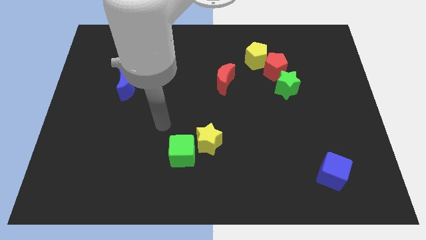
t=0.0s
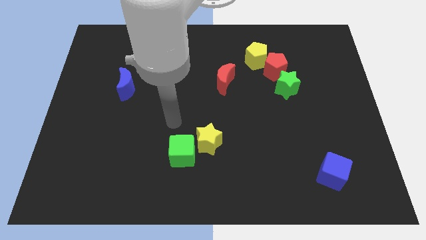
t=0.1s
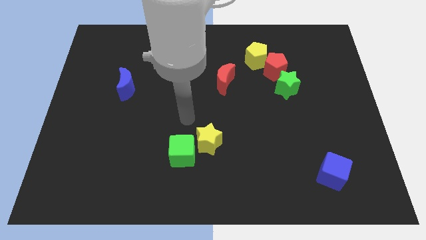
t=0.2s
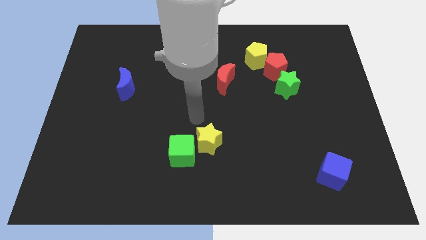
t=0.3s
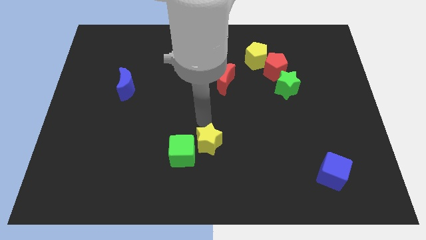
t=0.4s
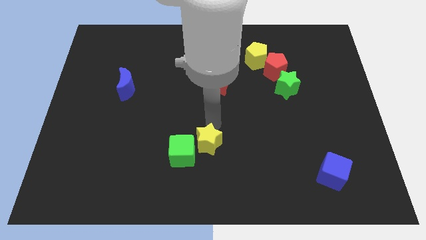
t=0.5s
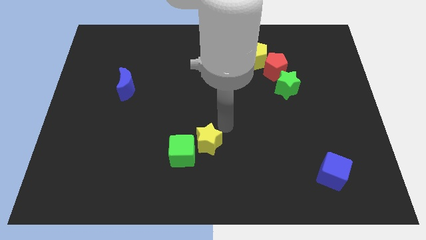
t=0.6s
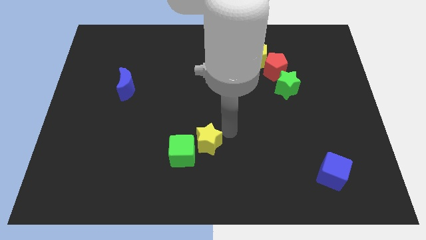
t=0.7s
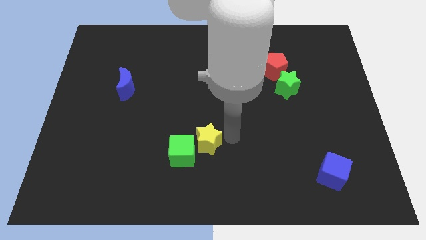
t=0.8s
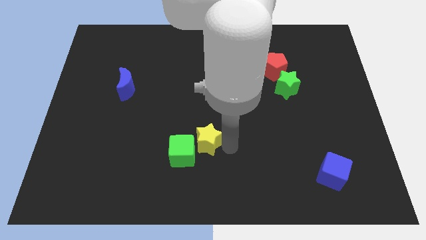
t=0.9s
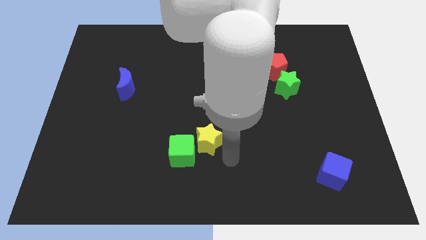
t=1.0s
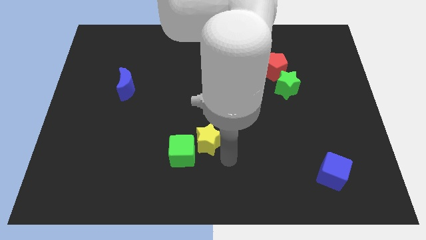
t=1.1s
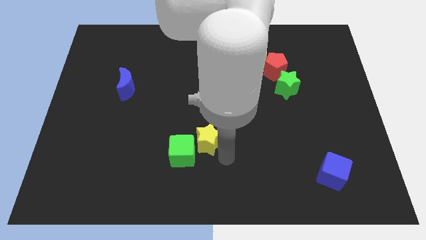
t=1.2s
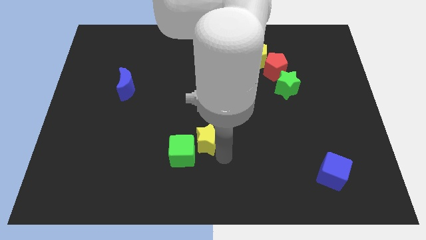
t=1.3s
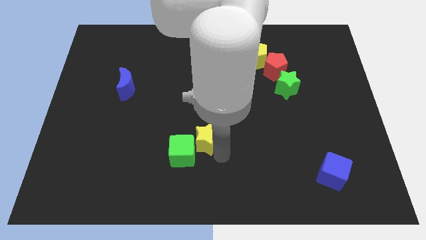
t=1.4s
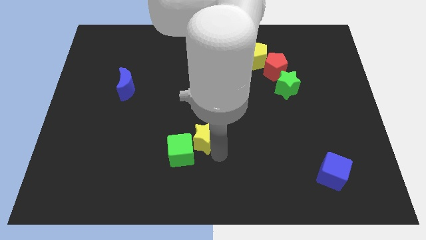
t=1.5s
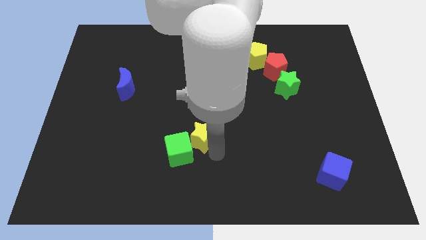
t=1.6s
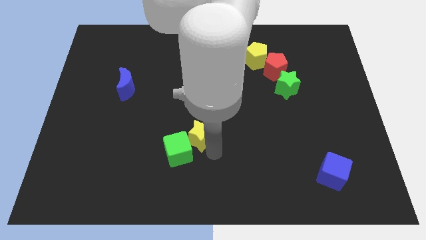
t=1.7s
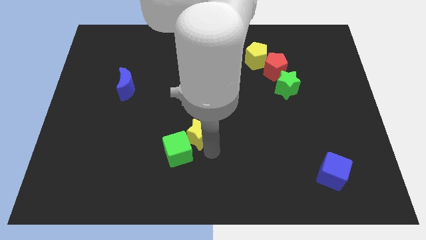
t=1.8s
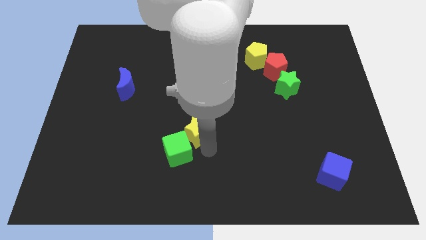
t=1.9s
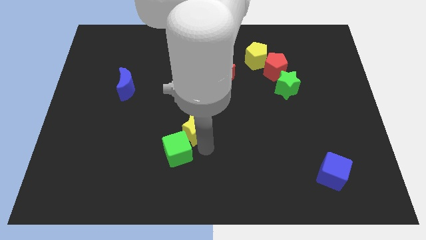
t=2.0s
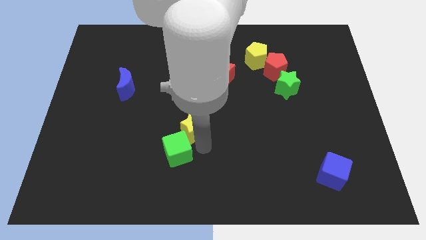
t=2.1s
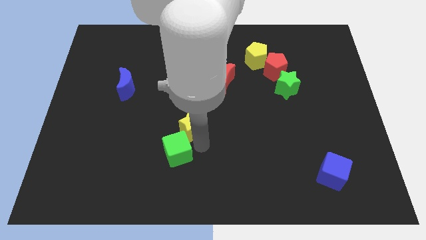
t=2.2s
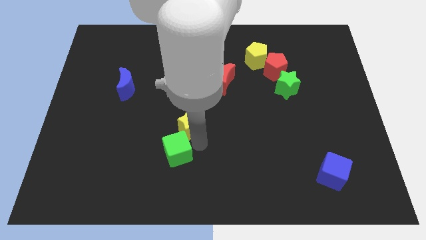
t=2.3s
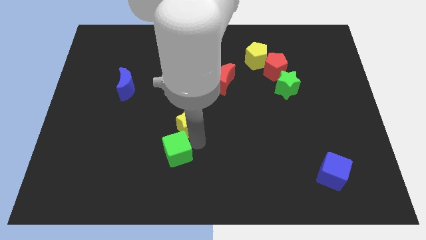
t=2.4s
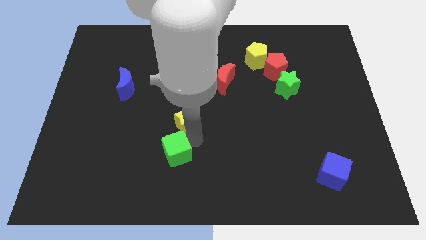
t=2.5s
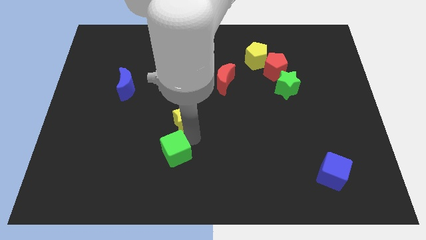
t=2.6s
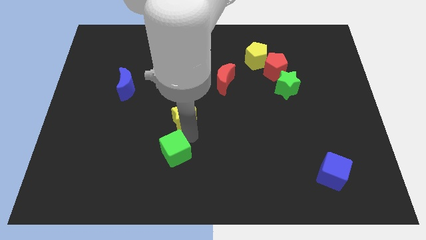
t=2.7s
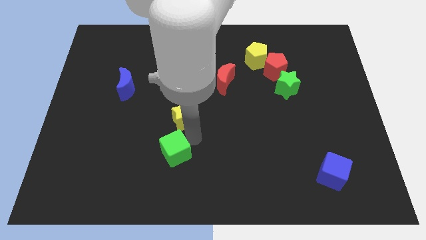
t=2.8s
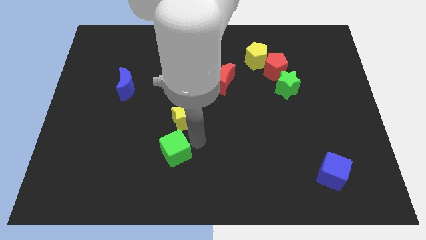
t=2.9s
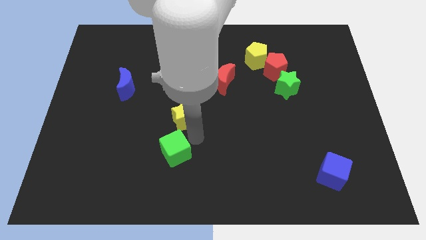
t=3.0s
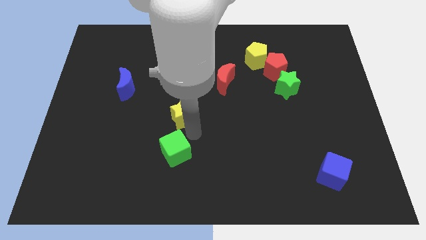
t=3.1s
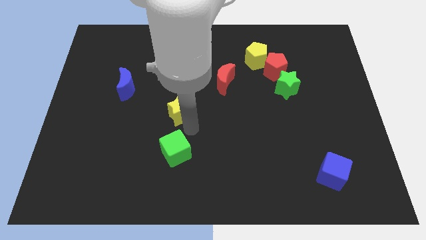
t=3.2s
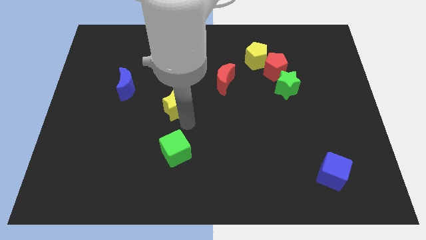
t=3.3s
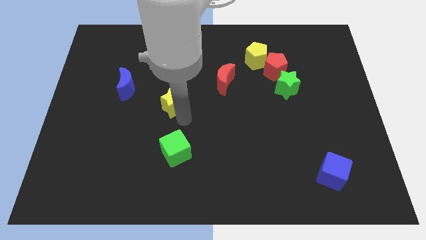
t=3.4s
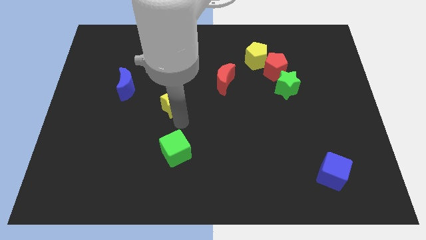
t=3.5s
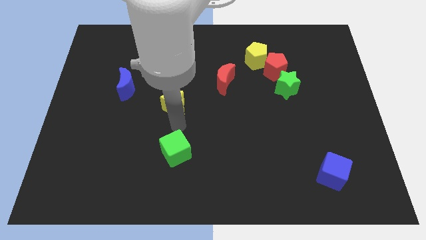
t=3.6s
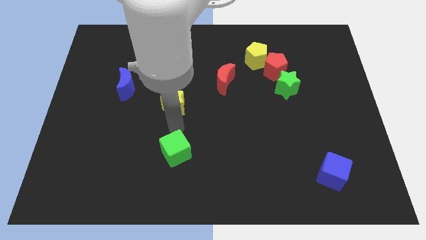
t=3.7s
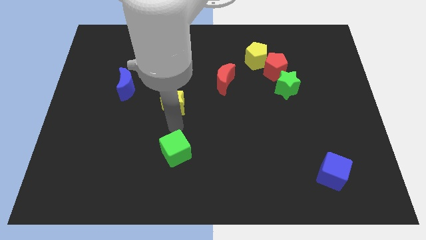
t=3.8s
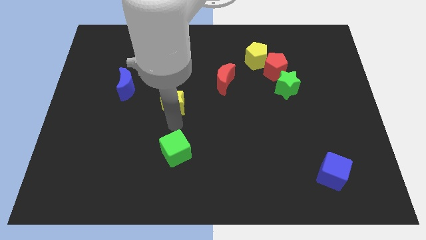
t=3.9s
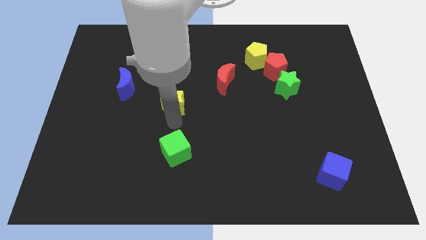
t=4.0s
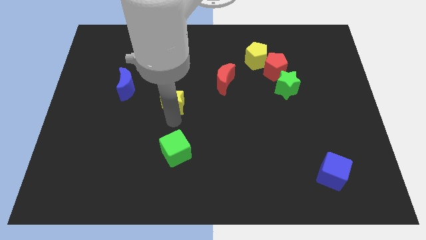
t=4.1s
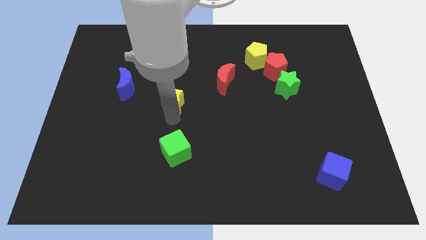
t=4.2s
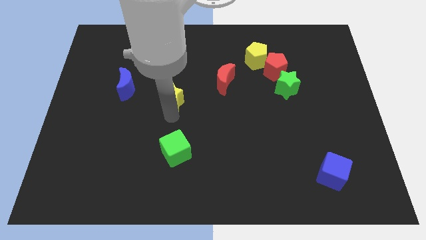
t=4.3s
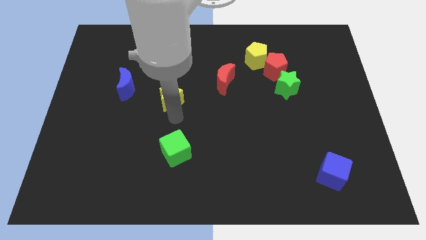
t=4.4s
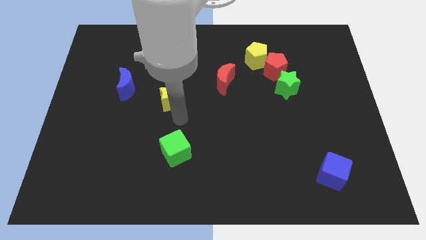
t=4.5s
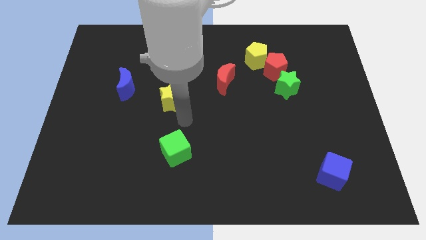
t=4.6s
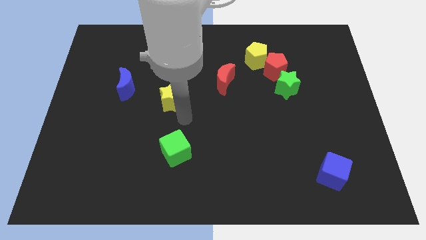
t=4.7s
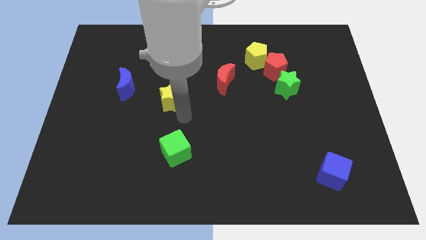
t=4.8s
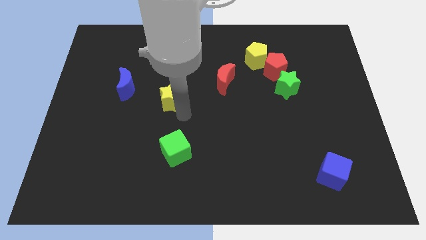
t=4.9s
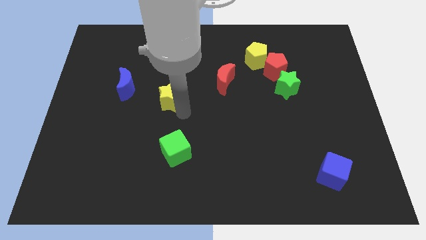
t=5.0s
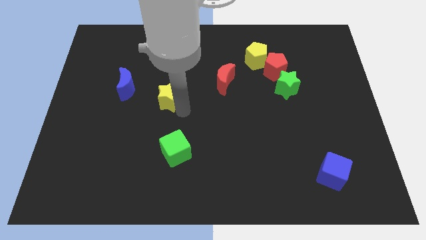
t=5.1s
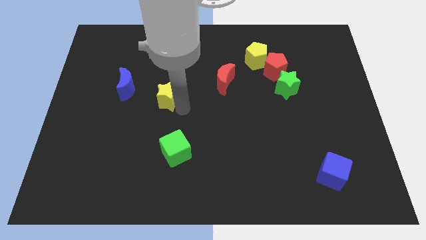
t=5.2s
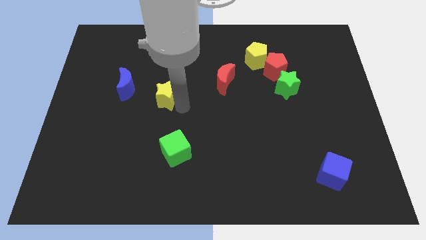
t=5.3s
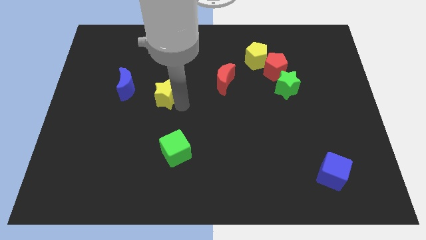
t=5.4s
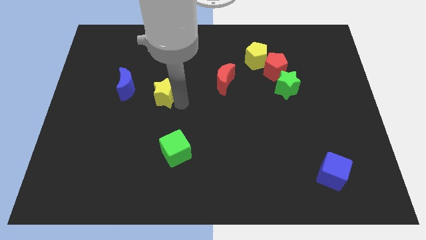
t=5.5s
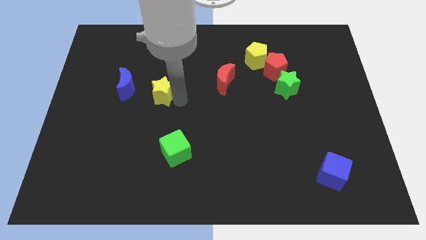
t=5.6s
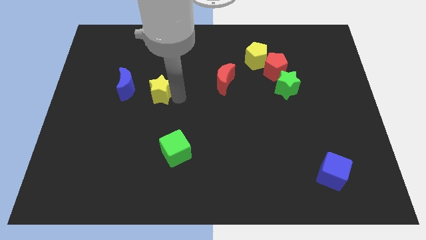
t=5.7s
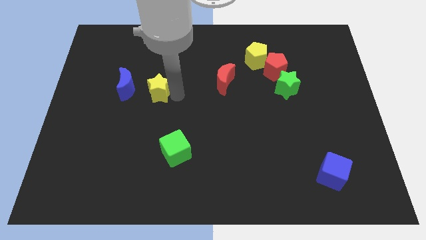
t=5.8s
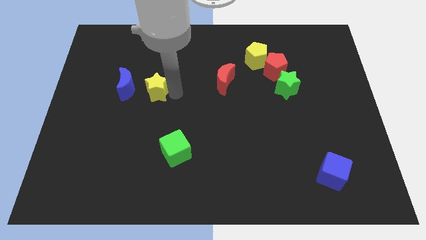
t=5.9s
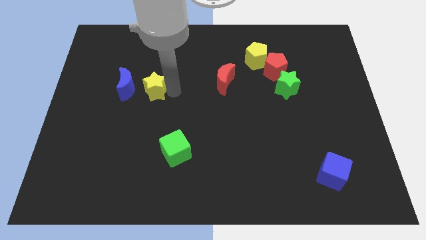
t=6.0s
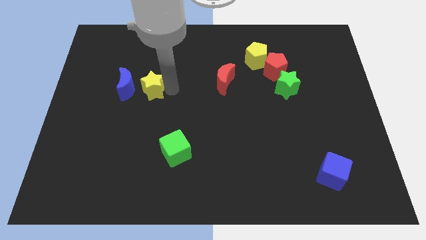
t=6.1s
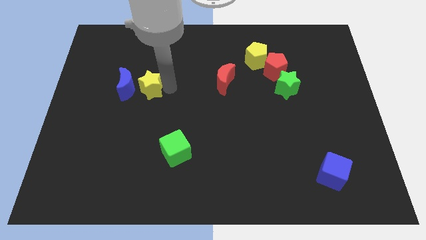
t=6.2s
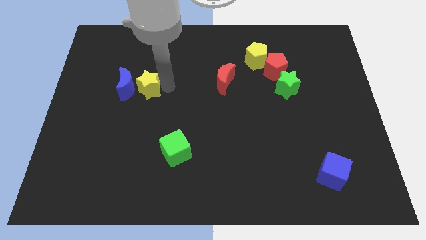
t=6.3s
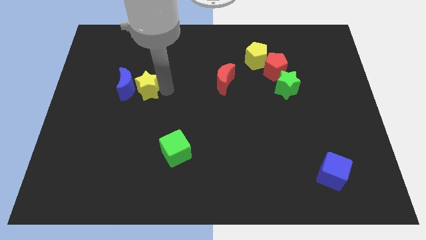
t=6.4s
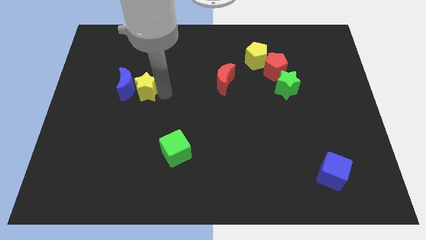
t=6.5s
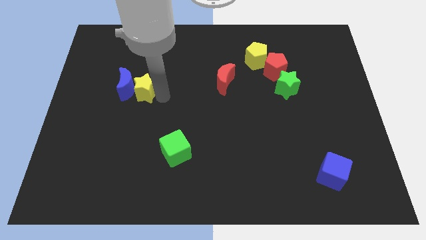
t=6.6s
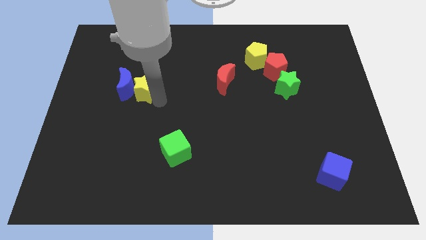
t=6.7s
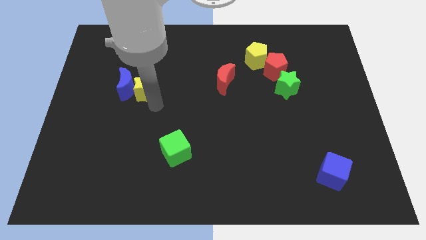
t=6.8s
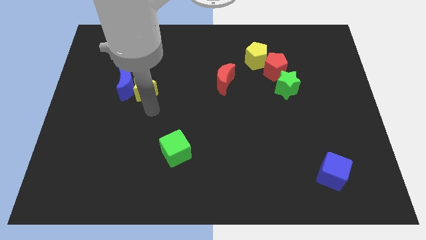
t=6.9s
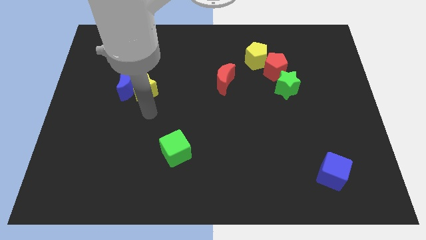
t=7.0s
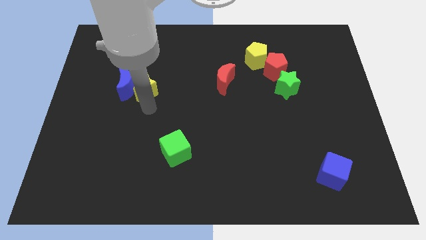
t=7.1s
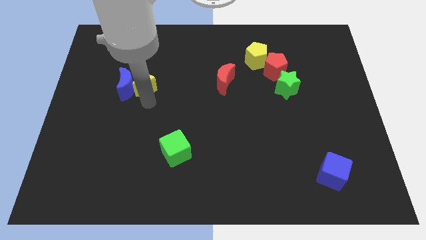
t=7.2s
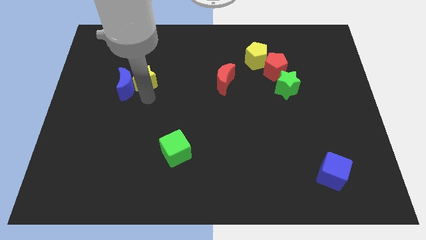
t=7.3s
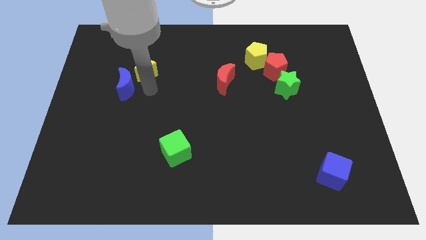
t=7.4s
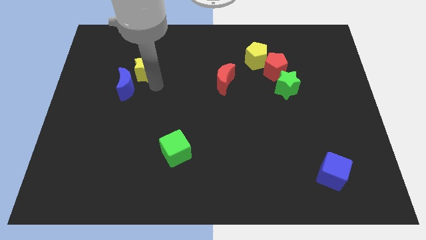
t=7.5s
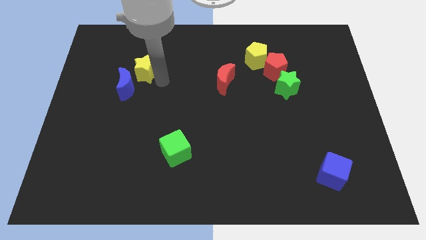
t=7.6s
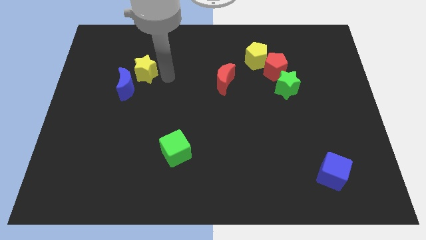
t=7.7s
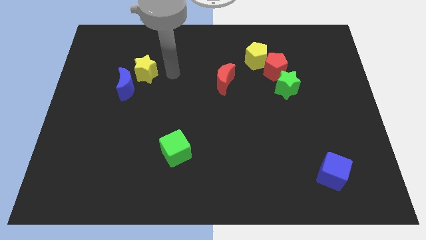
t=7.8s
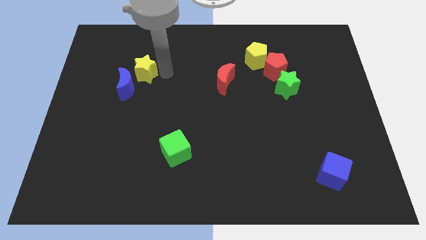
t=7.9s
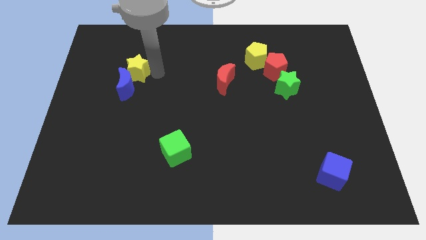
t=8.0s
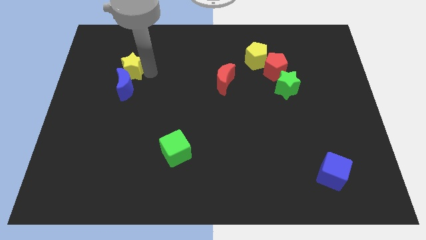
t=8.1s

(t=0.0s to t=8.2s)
put the yellow star to the top left of the blue moon
